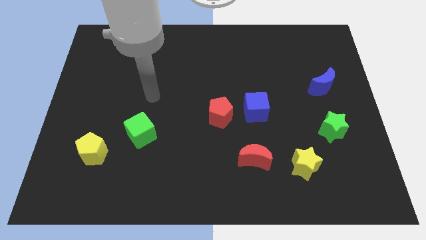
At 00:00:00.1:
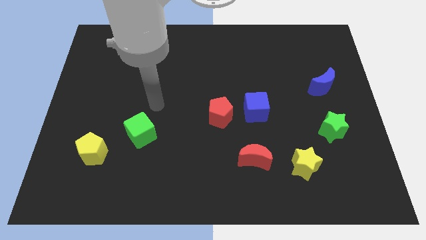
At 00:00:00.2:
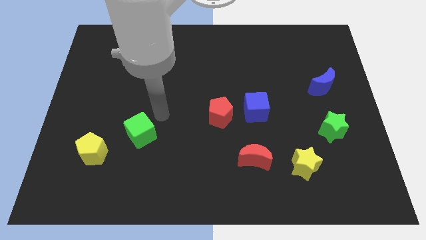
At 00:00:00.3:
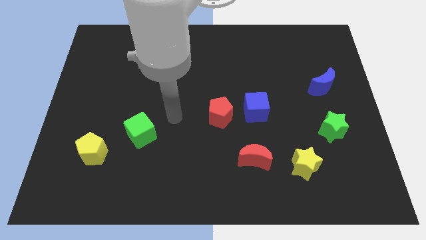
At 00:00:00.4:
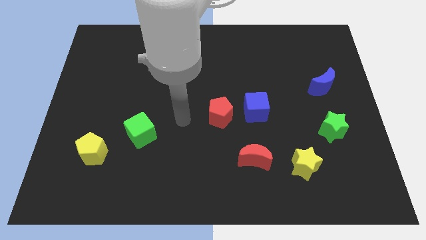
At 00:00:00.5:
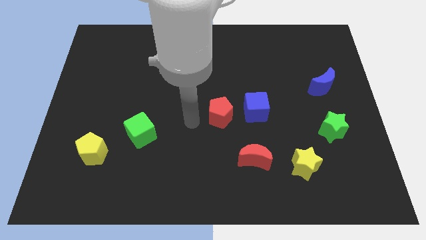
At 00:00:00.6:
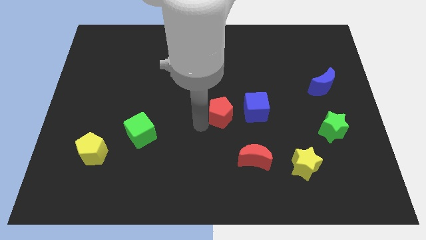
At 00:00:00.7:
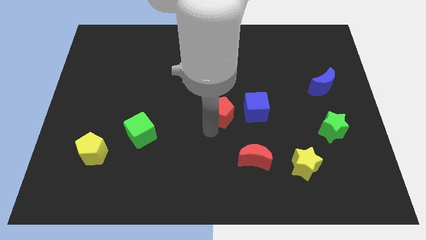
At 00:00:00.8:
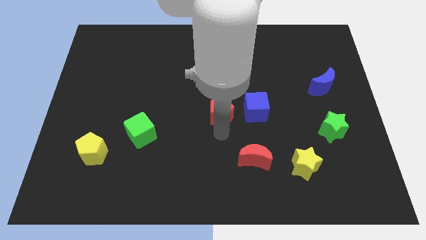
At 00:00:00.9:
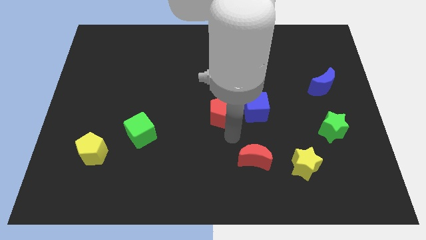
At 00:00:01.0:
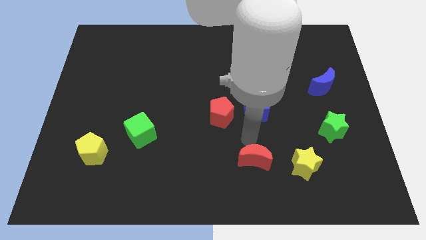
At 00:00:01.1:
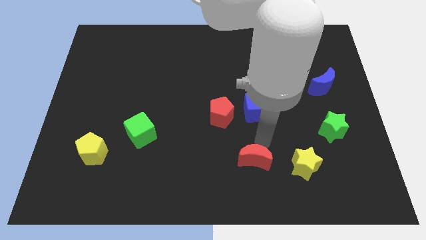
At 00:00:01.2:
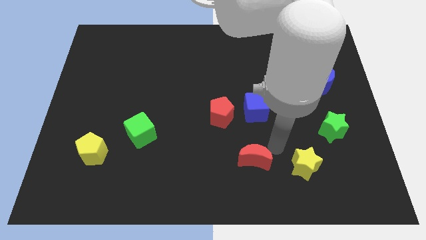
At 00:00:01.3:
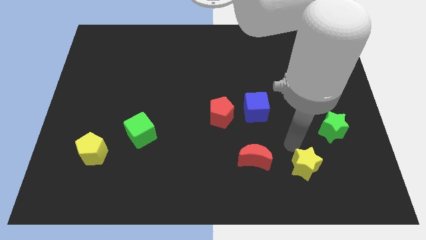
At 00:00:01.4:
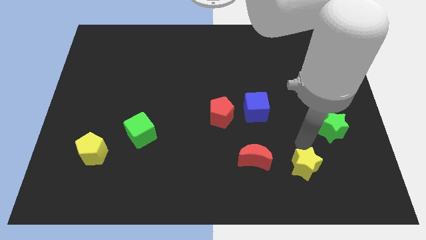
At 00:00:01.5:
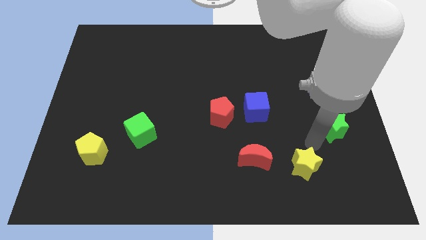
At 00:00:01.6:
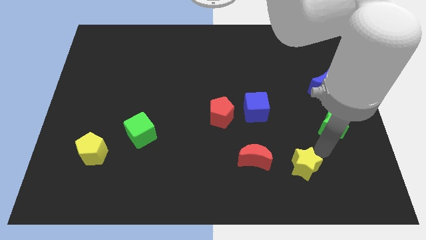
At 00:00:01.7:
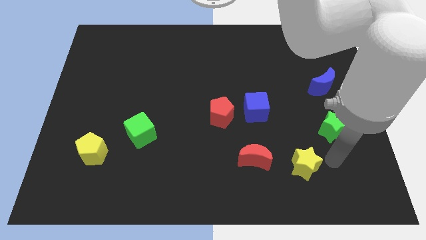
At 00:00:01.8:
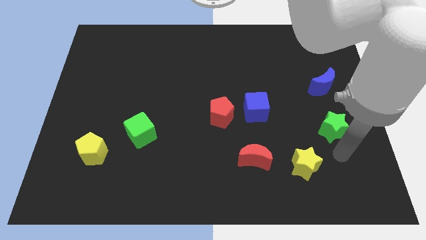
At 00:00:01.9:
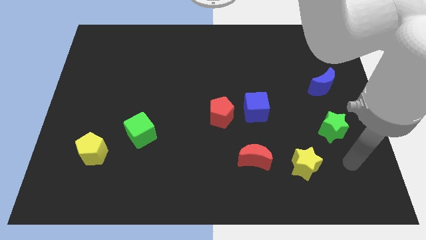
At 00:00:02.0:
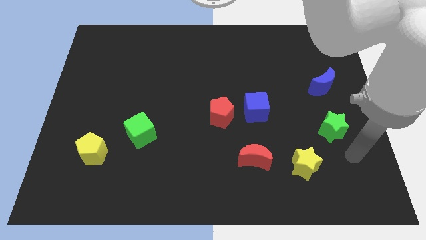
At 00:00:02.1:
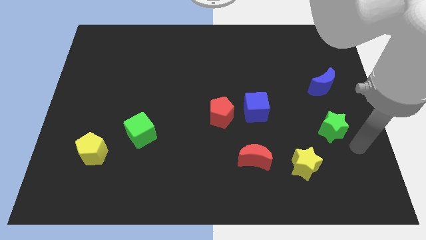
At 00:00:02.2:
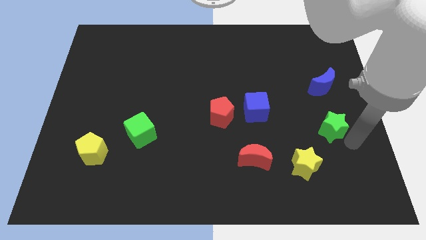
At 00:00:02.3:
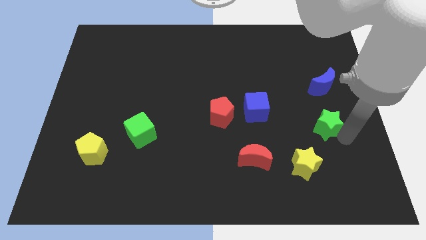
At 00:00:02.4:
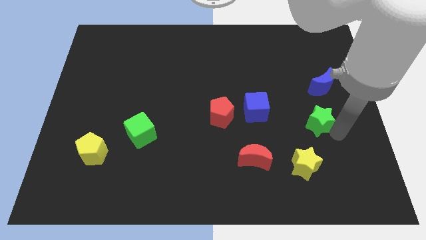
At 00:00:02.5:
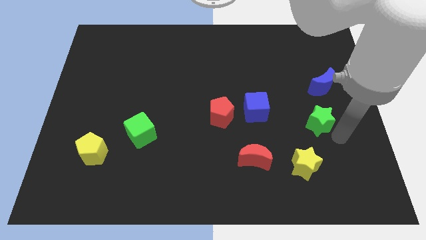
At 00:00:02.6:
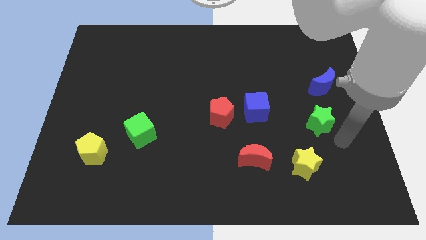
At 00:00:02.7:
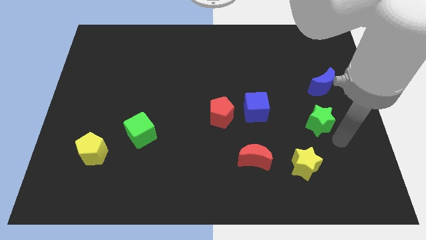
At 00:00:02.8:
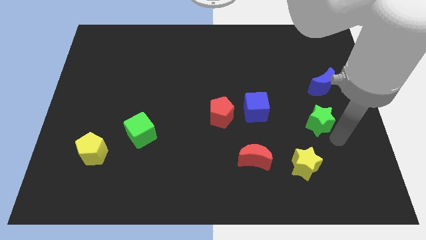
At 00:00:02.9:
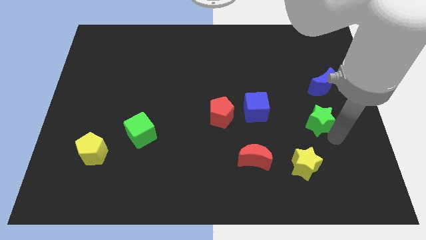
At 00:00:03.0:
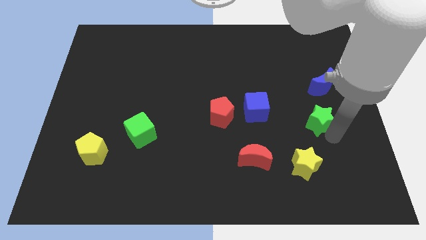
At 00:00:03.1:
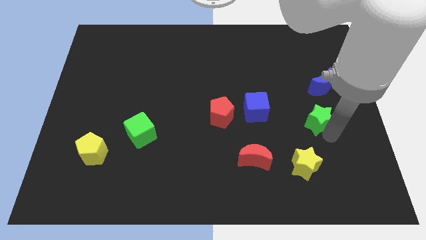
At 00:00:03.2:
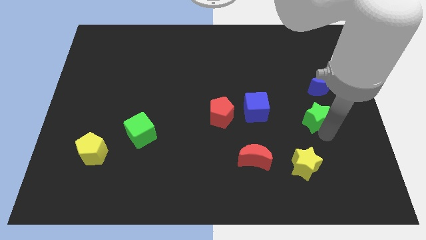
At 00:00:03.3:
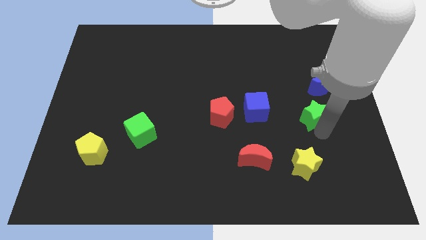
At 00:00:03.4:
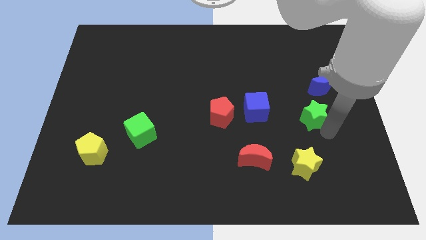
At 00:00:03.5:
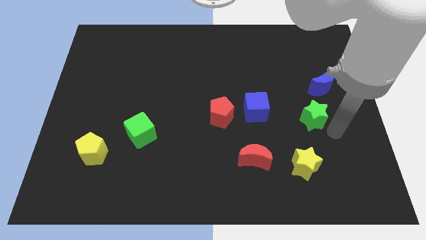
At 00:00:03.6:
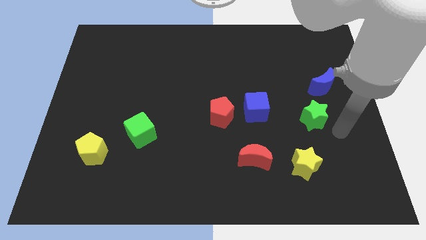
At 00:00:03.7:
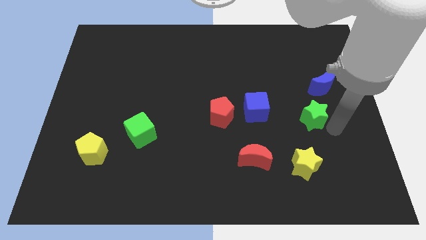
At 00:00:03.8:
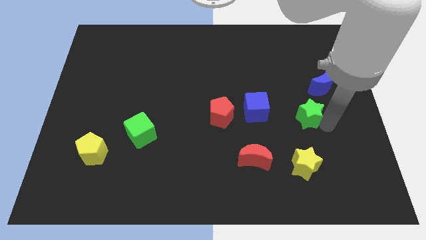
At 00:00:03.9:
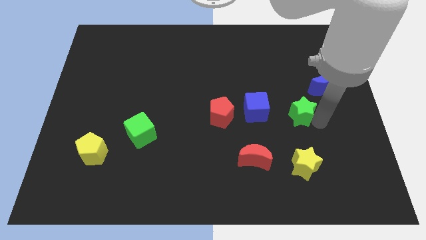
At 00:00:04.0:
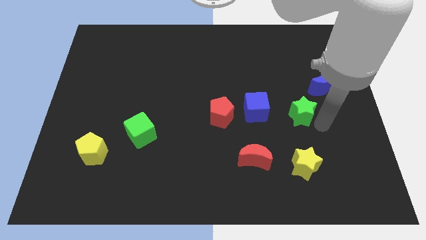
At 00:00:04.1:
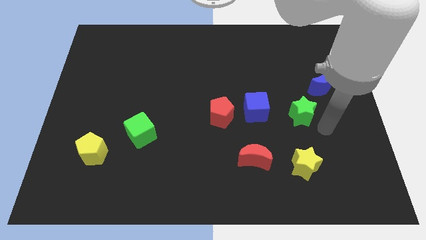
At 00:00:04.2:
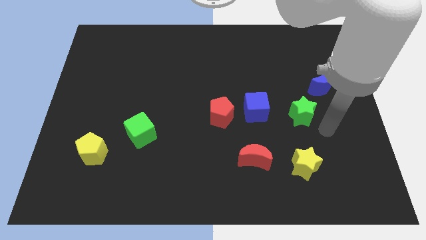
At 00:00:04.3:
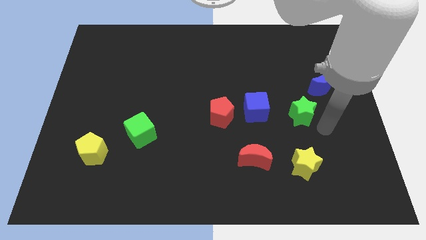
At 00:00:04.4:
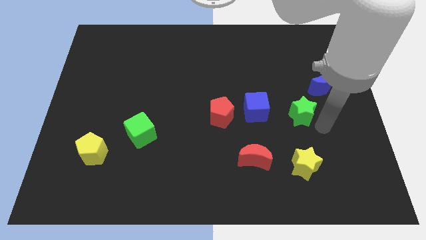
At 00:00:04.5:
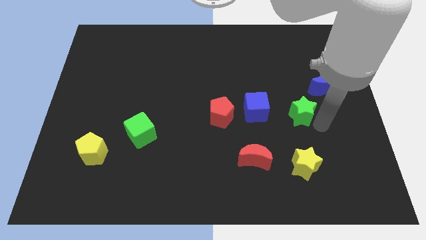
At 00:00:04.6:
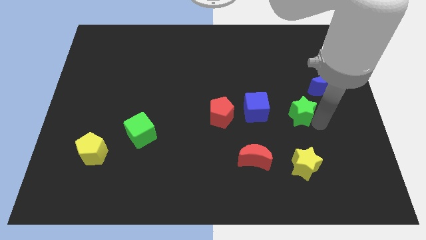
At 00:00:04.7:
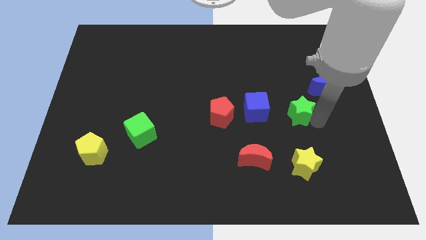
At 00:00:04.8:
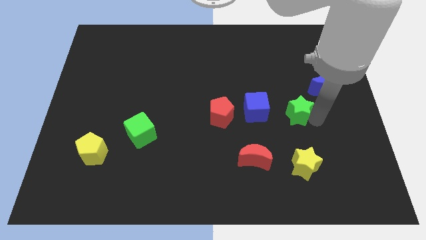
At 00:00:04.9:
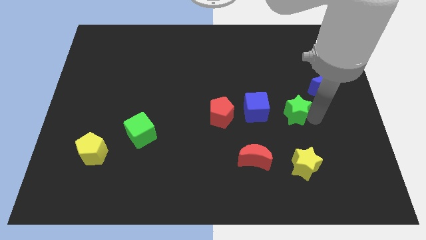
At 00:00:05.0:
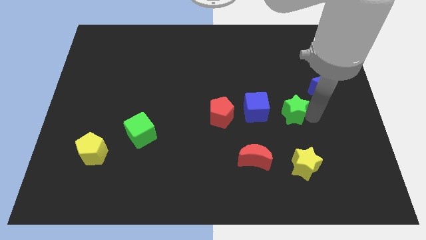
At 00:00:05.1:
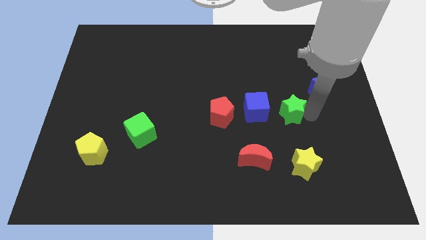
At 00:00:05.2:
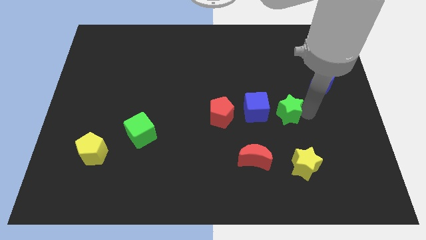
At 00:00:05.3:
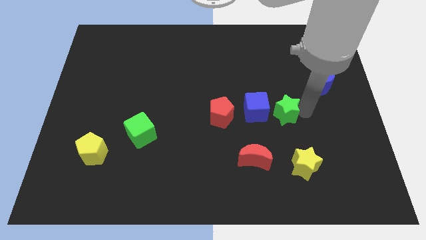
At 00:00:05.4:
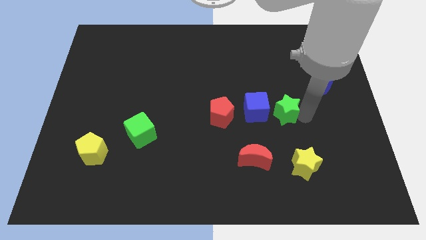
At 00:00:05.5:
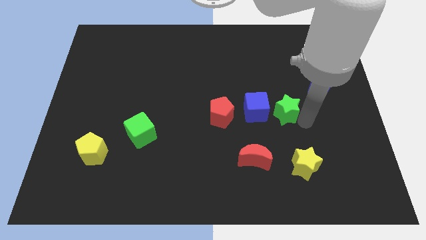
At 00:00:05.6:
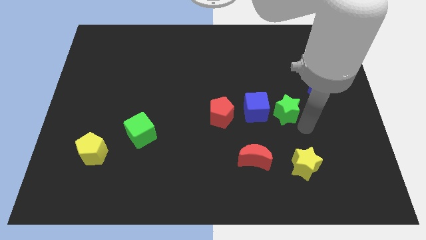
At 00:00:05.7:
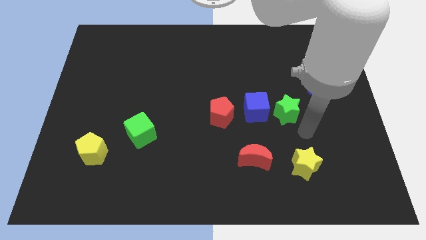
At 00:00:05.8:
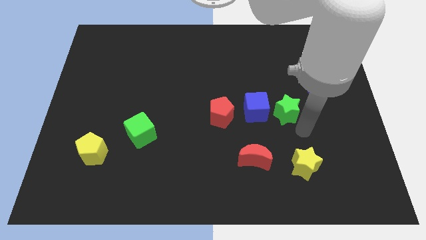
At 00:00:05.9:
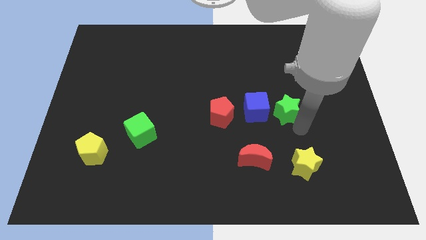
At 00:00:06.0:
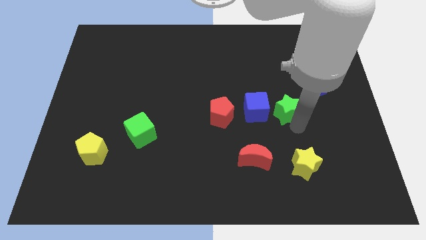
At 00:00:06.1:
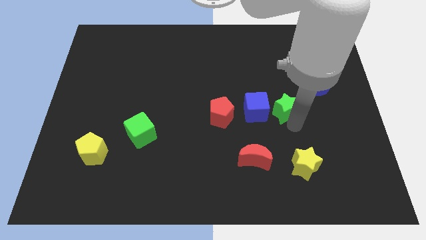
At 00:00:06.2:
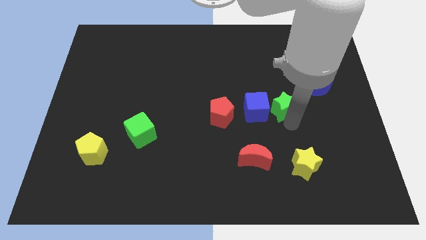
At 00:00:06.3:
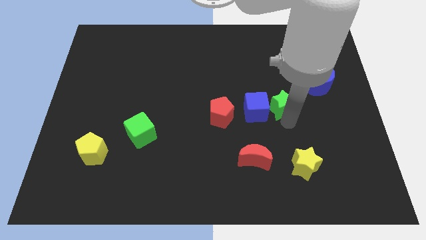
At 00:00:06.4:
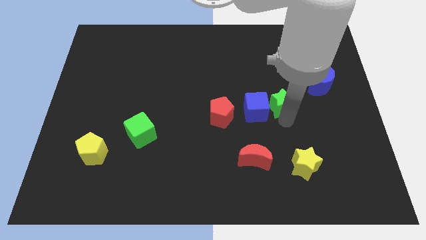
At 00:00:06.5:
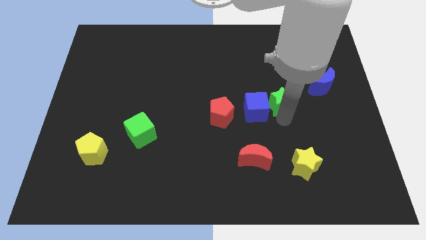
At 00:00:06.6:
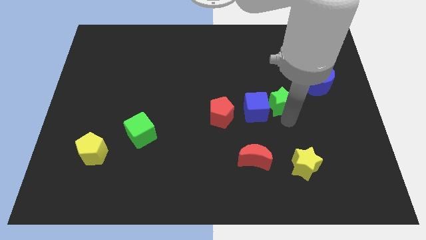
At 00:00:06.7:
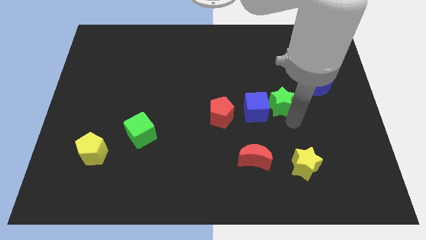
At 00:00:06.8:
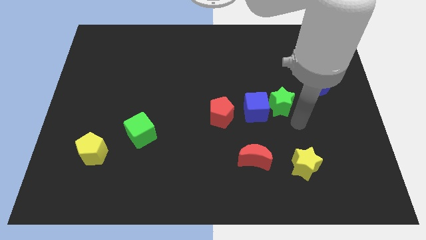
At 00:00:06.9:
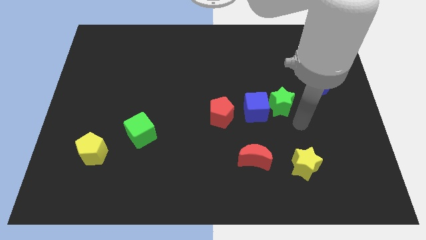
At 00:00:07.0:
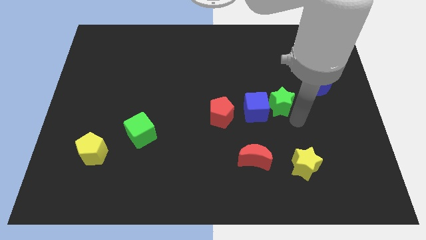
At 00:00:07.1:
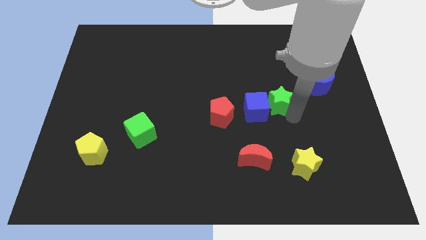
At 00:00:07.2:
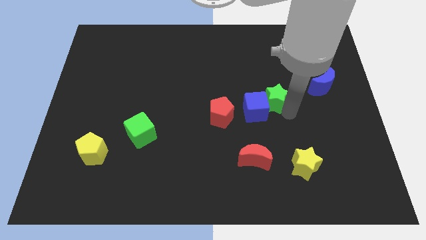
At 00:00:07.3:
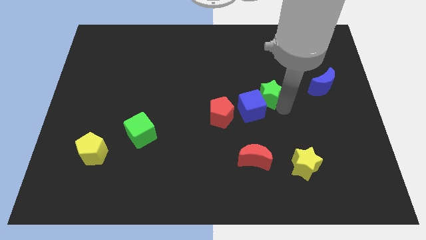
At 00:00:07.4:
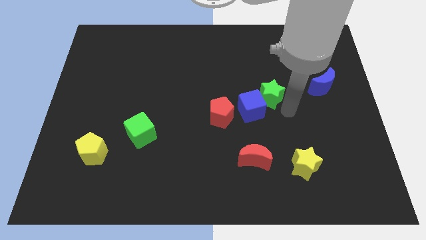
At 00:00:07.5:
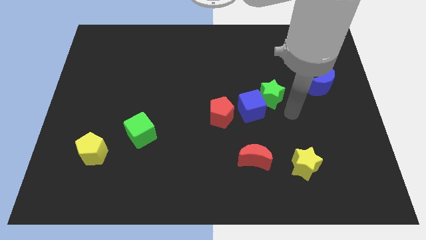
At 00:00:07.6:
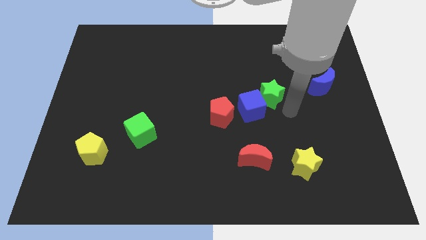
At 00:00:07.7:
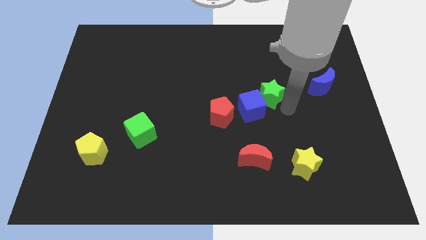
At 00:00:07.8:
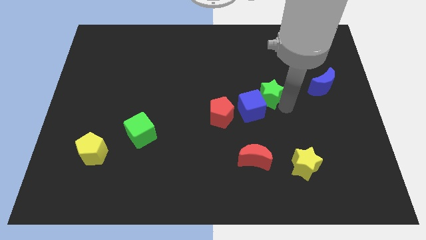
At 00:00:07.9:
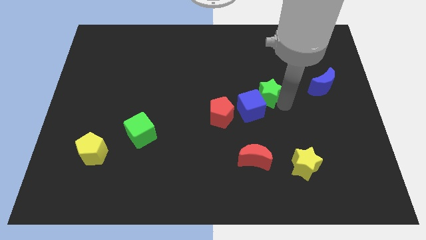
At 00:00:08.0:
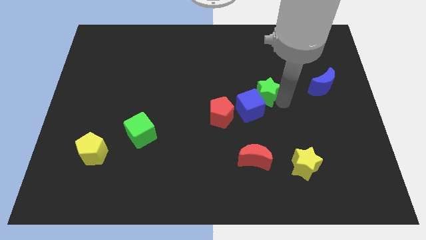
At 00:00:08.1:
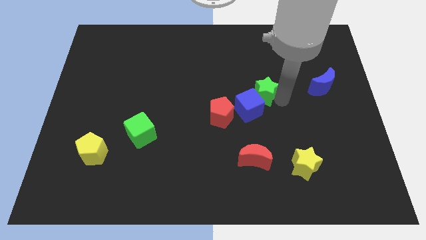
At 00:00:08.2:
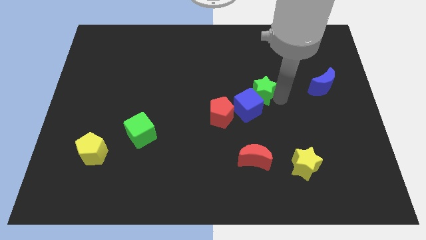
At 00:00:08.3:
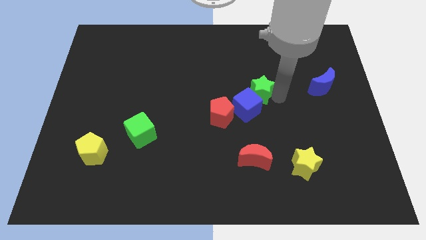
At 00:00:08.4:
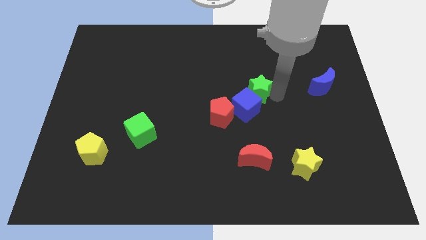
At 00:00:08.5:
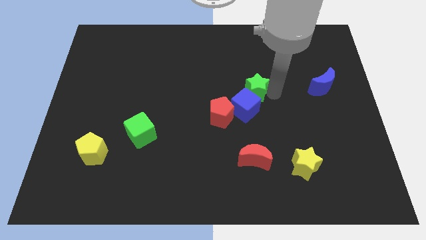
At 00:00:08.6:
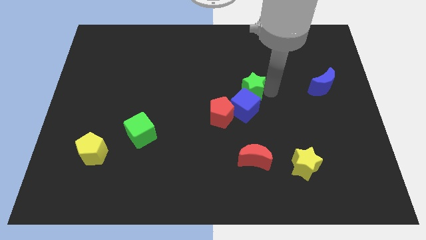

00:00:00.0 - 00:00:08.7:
move the green star upwards and left
